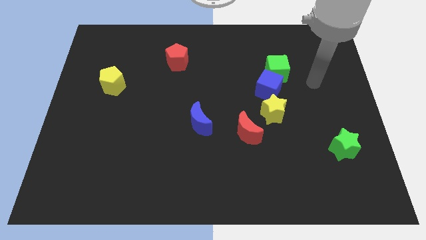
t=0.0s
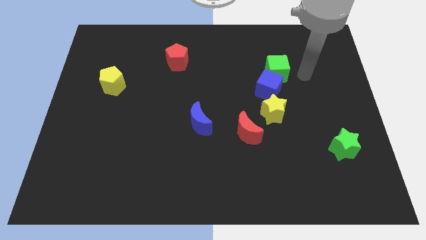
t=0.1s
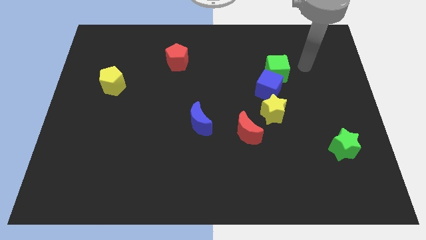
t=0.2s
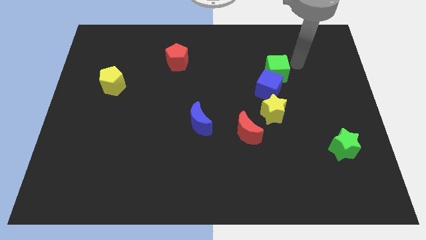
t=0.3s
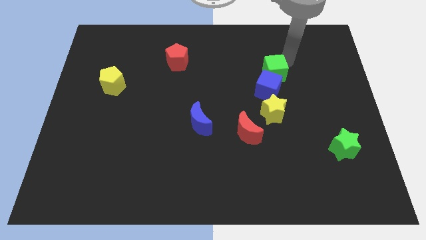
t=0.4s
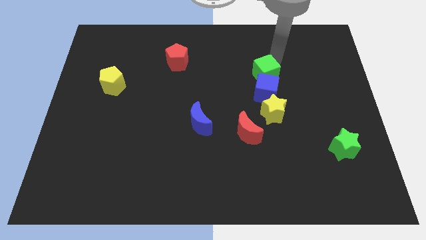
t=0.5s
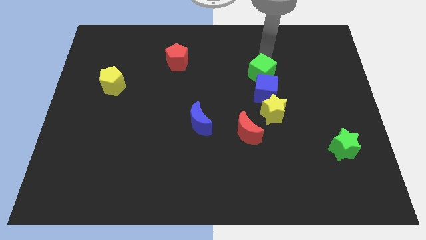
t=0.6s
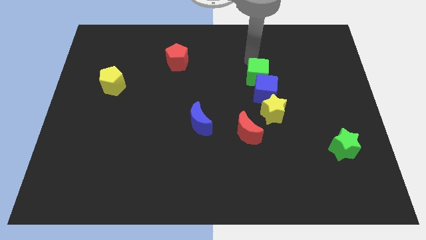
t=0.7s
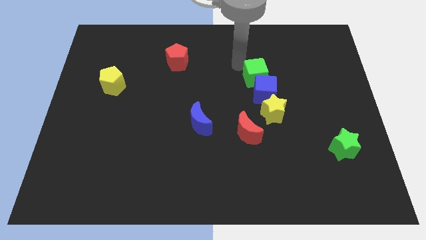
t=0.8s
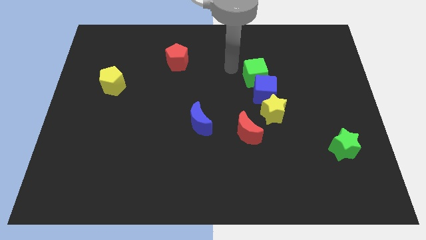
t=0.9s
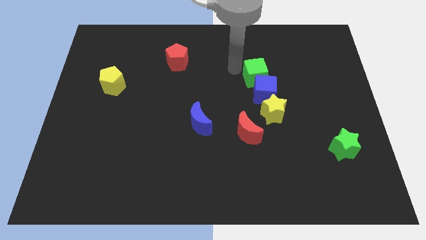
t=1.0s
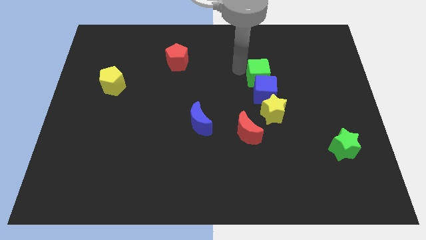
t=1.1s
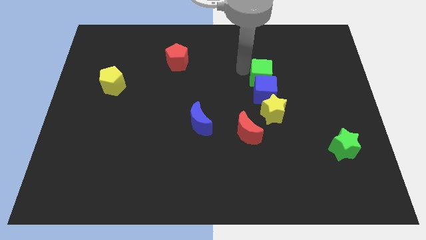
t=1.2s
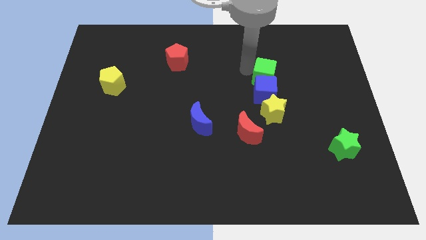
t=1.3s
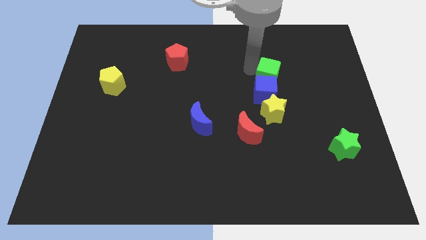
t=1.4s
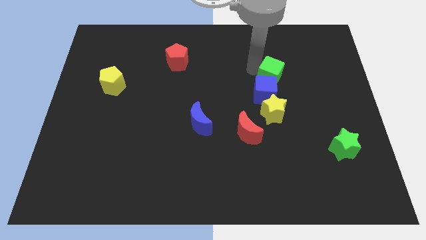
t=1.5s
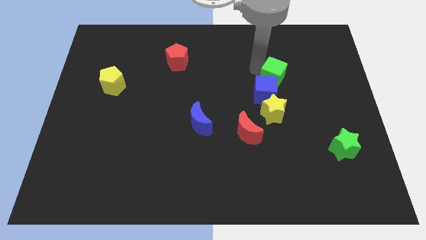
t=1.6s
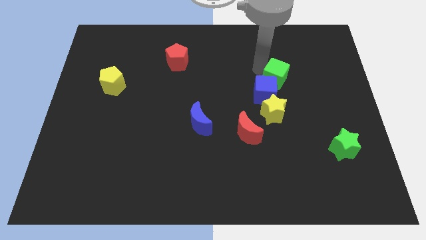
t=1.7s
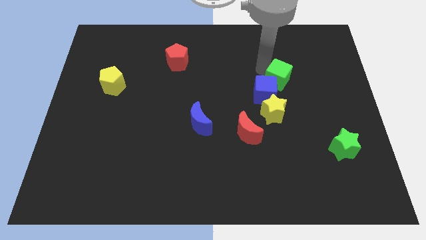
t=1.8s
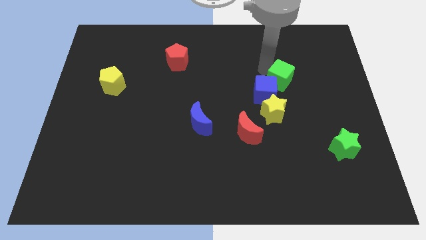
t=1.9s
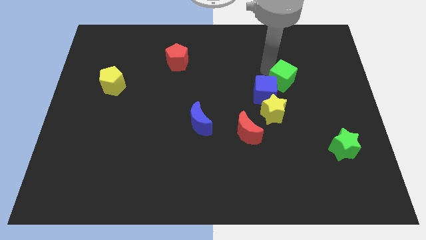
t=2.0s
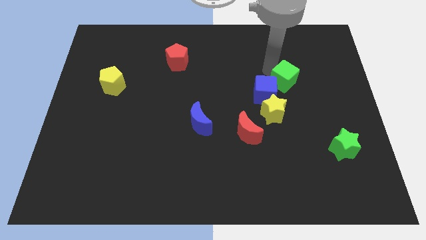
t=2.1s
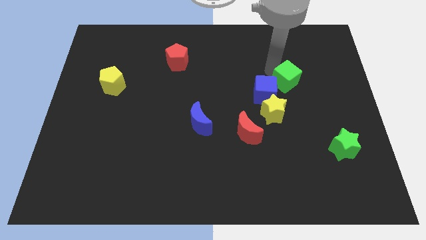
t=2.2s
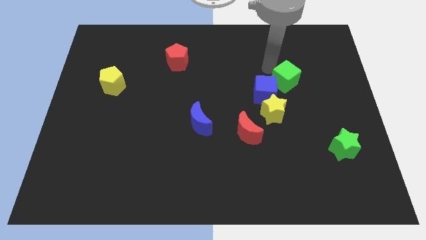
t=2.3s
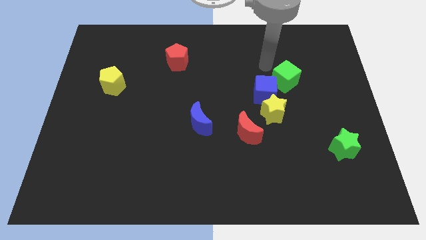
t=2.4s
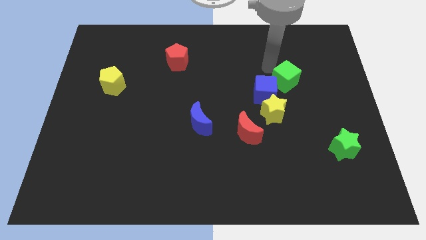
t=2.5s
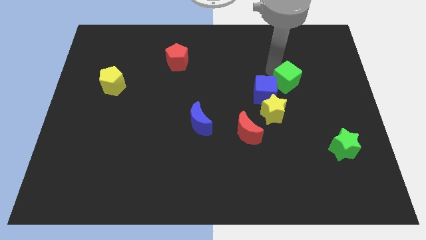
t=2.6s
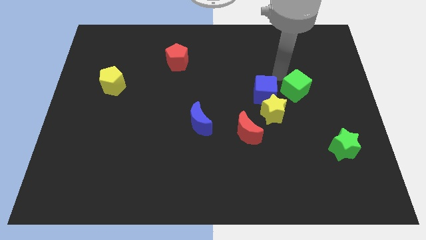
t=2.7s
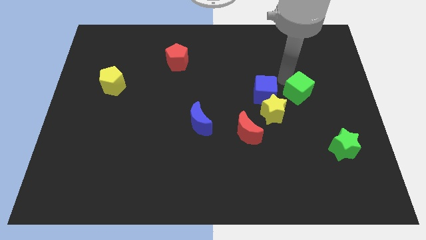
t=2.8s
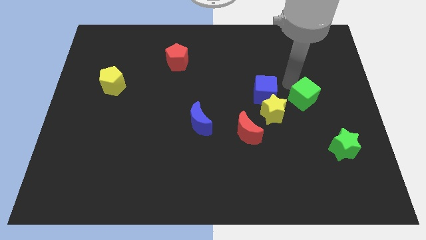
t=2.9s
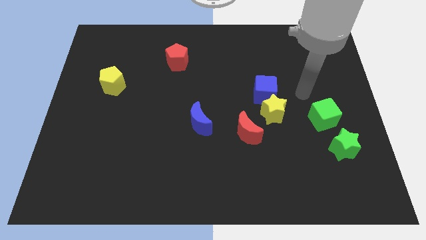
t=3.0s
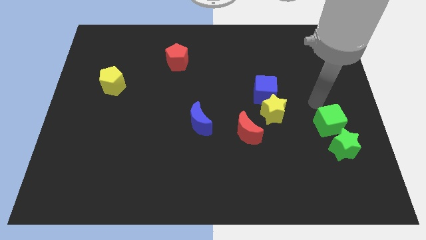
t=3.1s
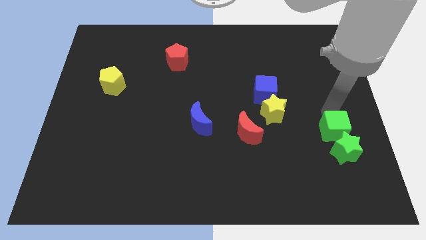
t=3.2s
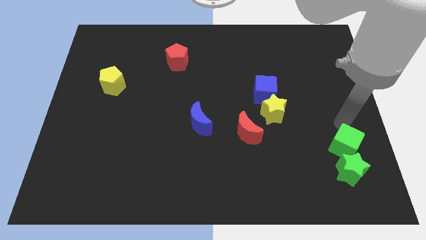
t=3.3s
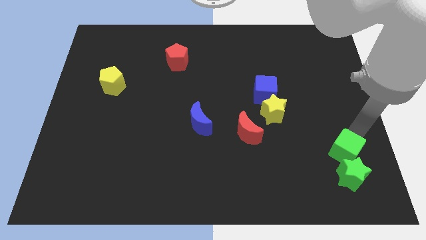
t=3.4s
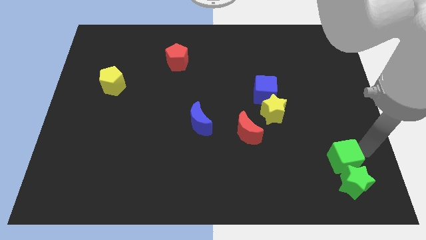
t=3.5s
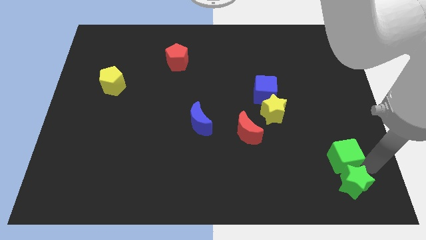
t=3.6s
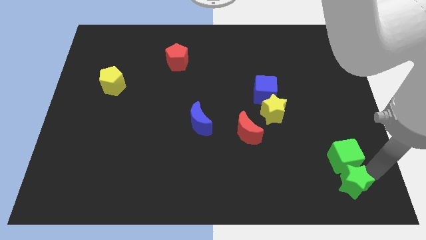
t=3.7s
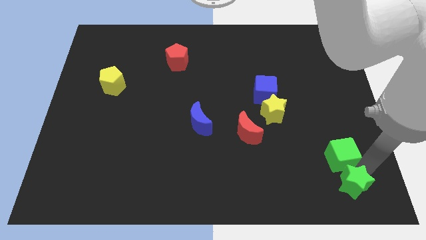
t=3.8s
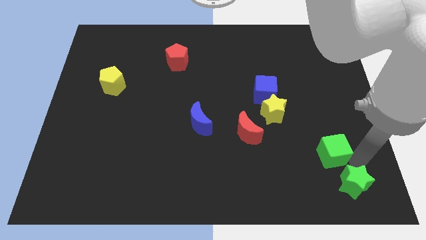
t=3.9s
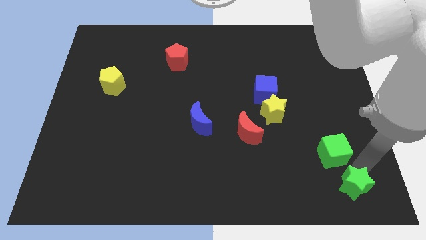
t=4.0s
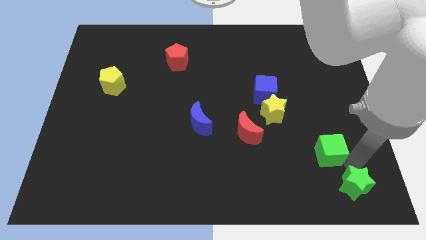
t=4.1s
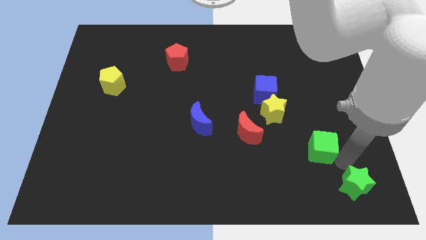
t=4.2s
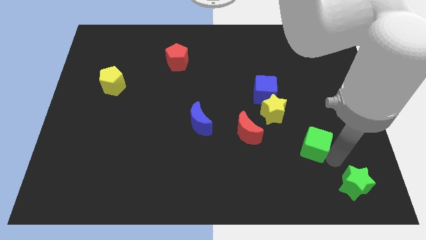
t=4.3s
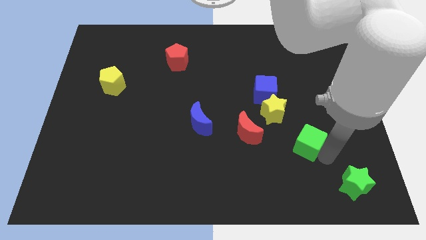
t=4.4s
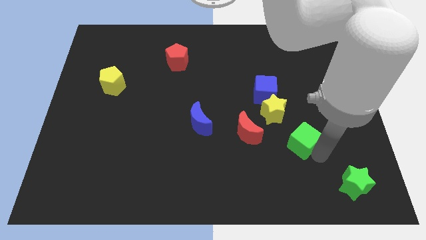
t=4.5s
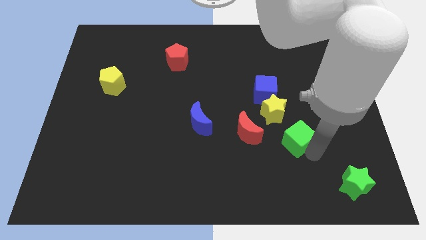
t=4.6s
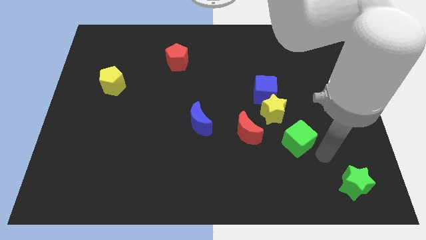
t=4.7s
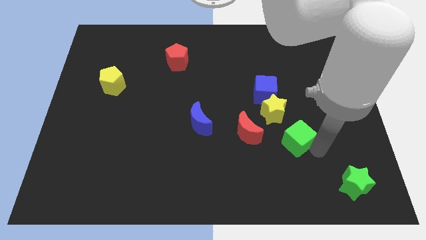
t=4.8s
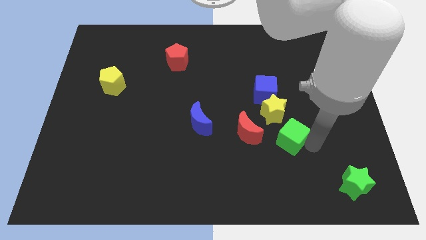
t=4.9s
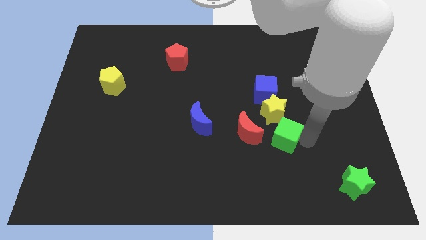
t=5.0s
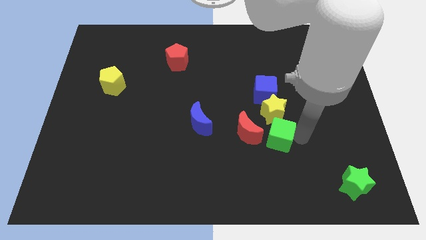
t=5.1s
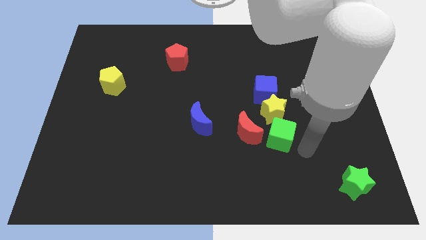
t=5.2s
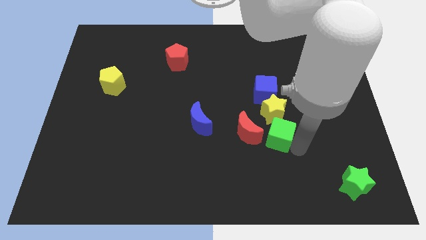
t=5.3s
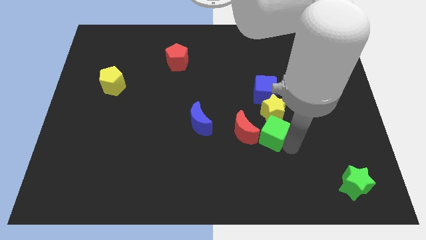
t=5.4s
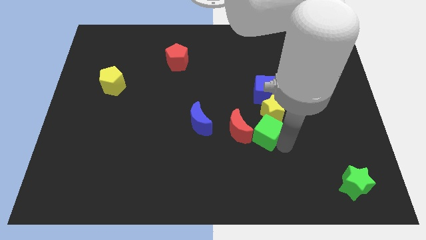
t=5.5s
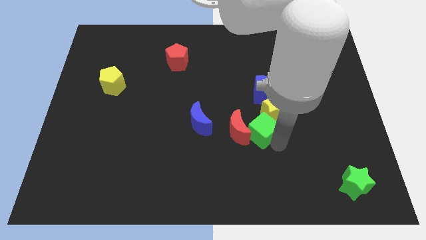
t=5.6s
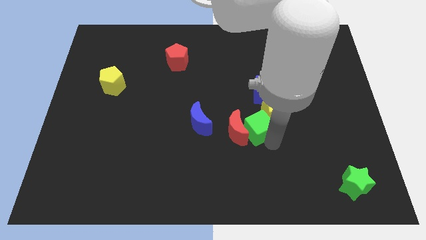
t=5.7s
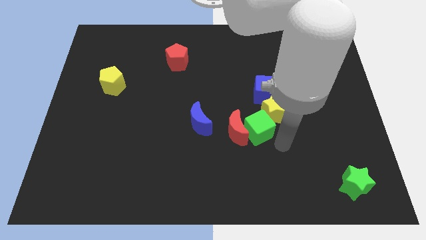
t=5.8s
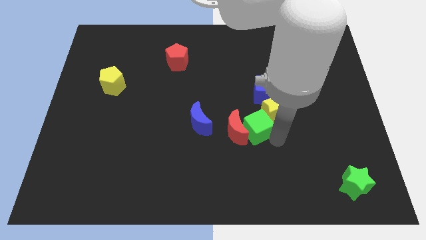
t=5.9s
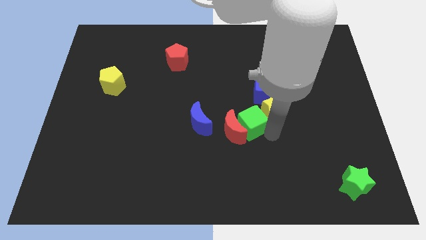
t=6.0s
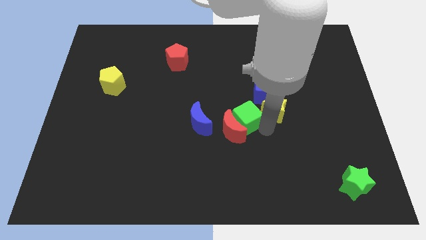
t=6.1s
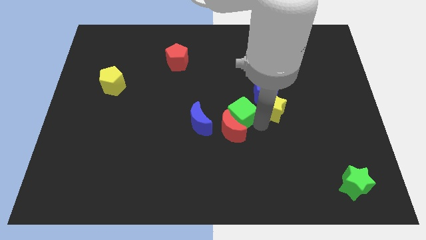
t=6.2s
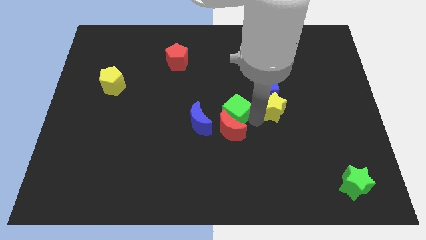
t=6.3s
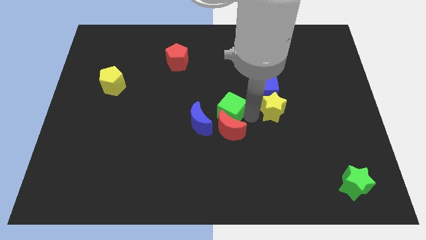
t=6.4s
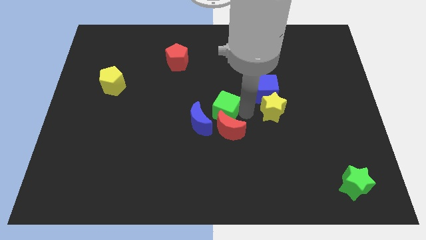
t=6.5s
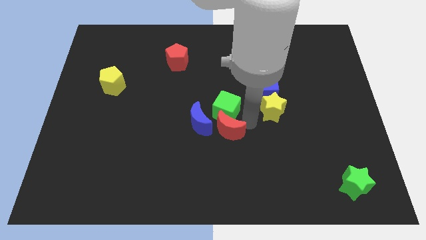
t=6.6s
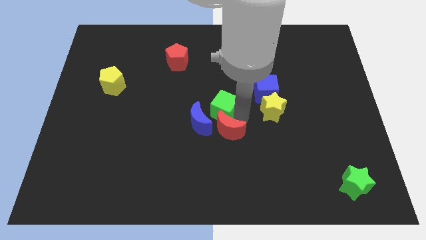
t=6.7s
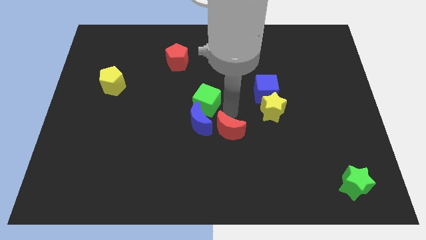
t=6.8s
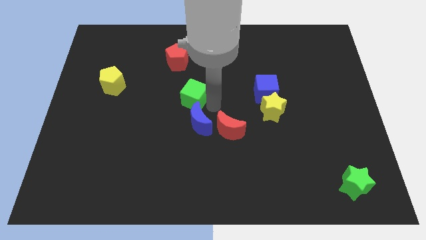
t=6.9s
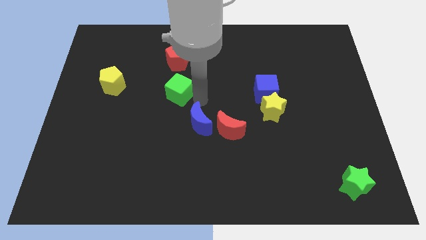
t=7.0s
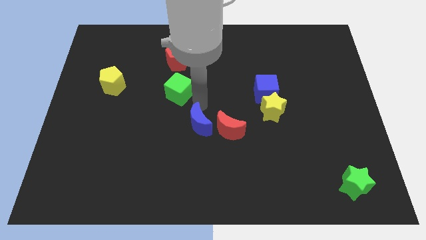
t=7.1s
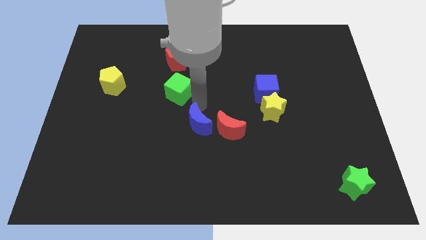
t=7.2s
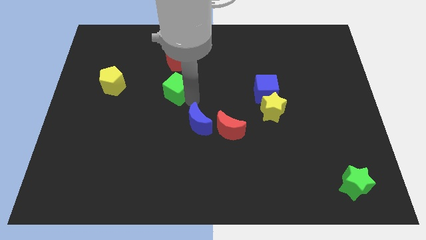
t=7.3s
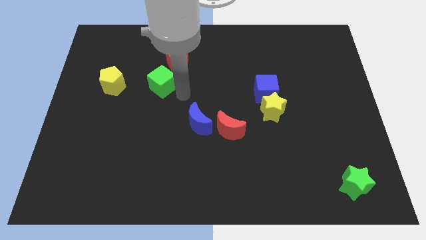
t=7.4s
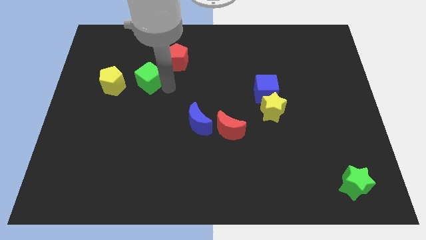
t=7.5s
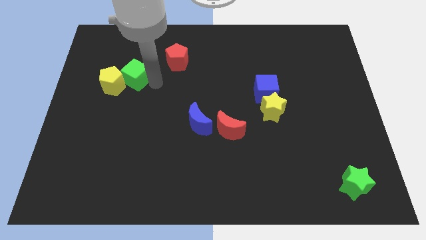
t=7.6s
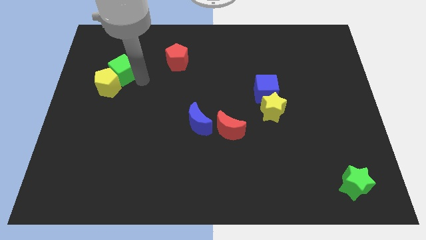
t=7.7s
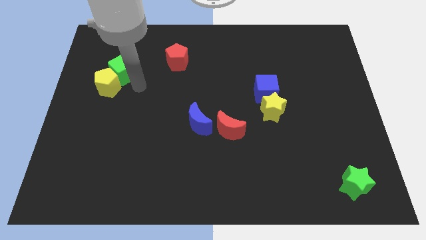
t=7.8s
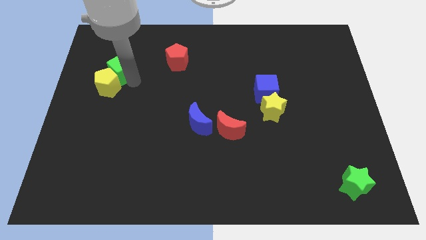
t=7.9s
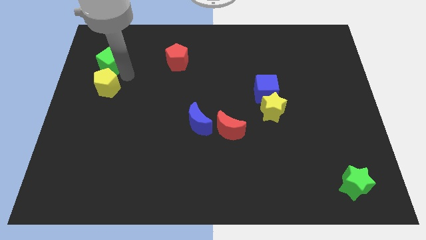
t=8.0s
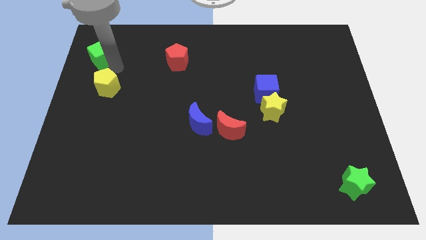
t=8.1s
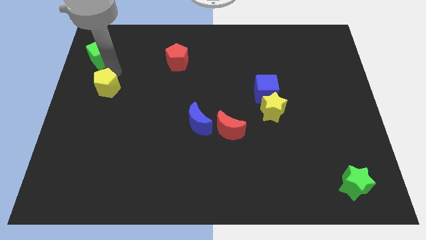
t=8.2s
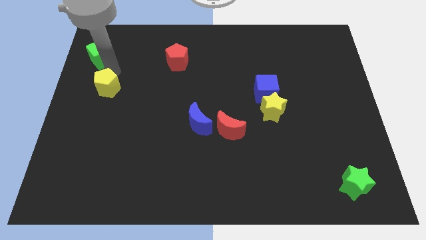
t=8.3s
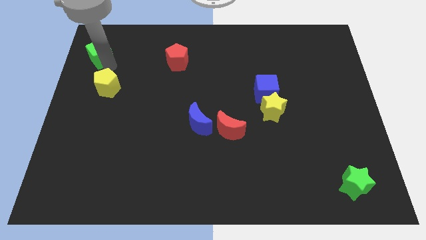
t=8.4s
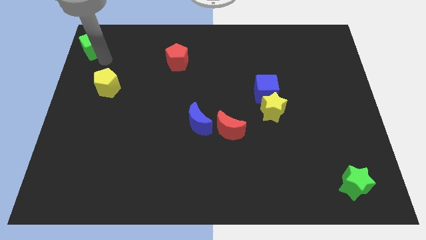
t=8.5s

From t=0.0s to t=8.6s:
slide the green cube to the top left of the board
